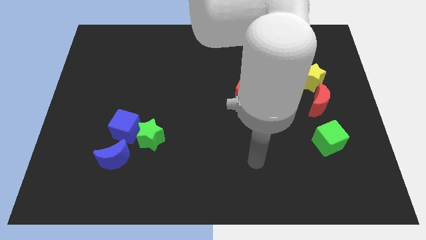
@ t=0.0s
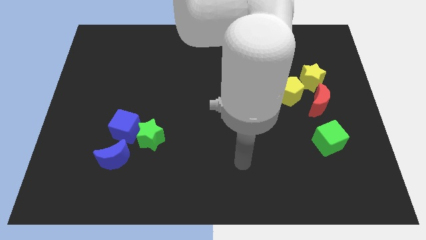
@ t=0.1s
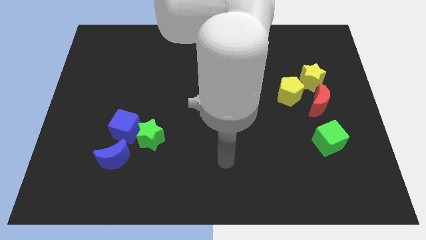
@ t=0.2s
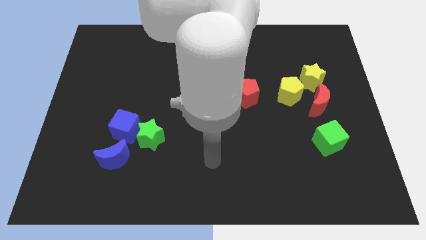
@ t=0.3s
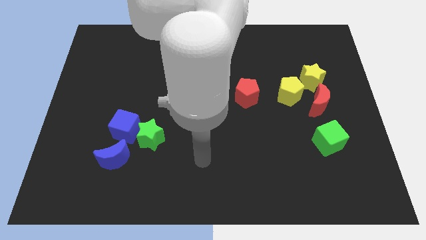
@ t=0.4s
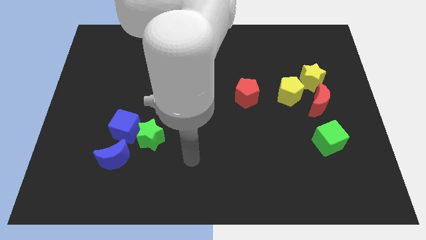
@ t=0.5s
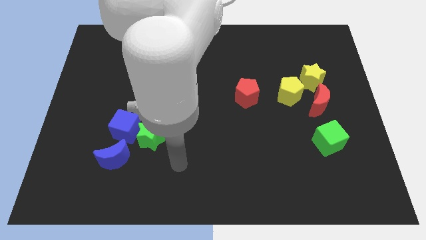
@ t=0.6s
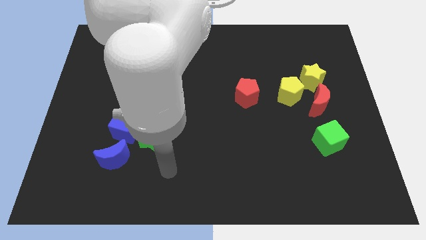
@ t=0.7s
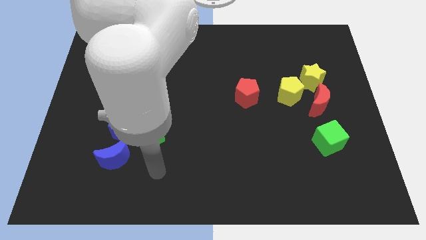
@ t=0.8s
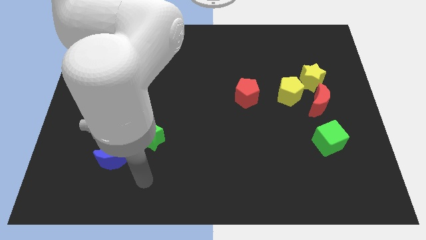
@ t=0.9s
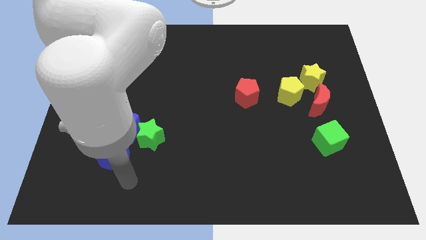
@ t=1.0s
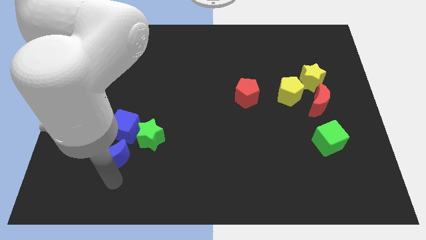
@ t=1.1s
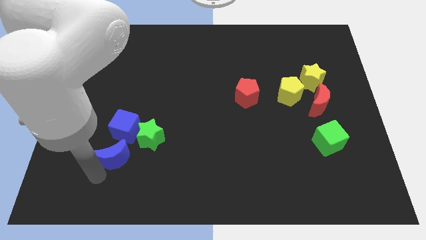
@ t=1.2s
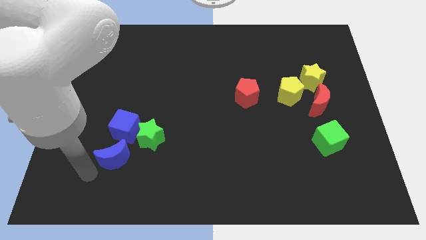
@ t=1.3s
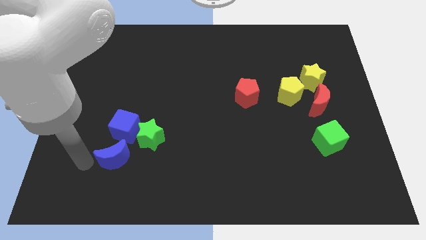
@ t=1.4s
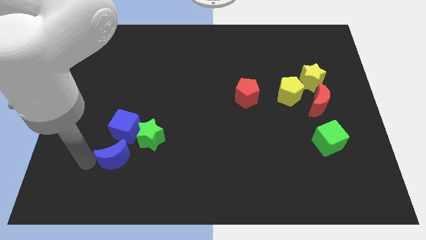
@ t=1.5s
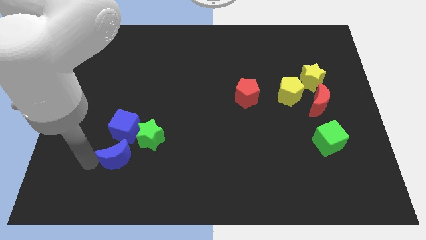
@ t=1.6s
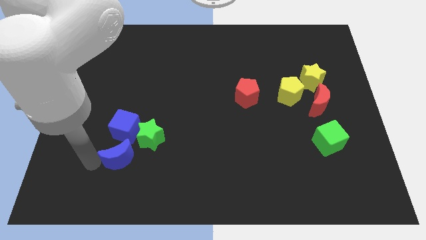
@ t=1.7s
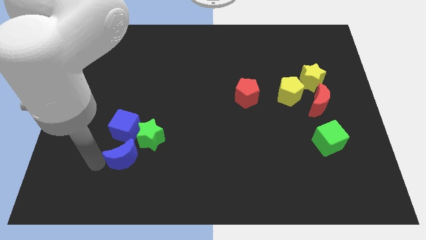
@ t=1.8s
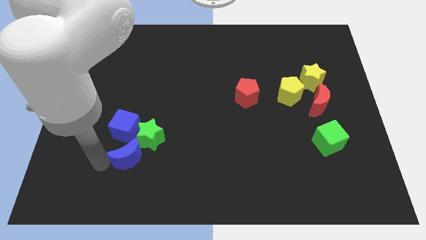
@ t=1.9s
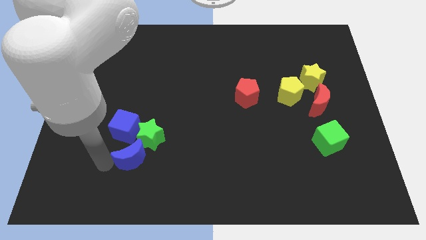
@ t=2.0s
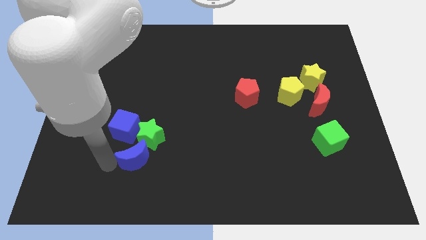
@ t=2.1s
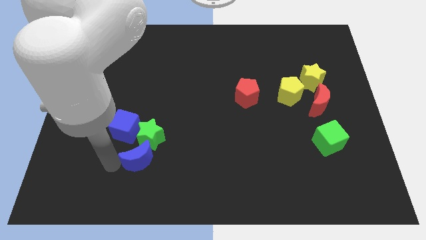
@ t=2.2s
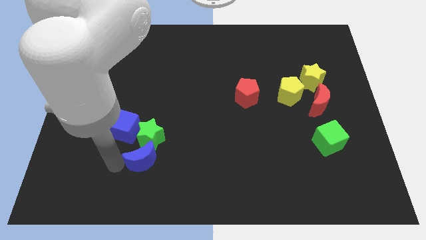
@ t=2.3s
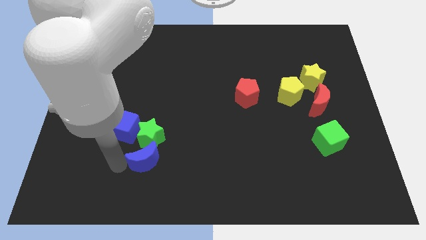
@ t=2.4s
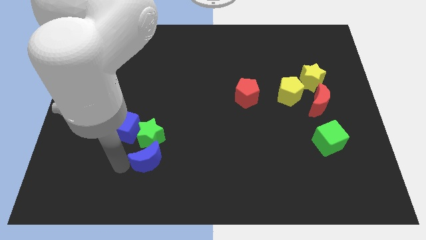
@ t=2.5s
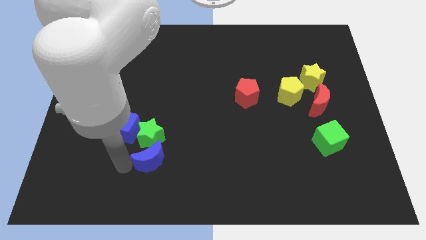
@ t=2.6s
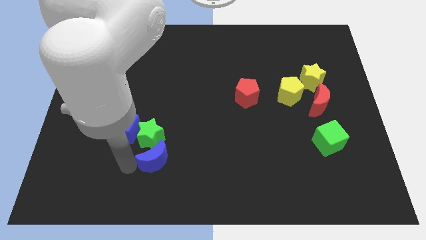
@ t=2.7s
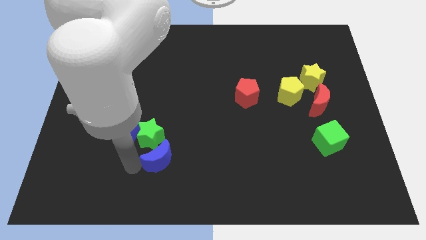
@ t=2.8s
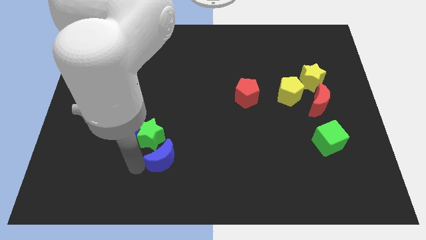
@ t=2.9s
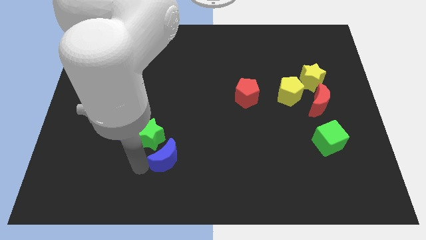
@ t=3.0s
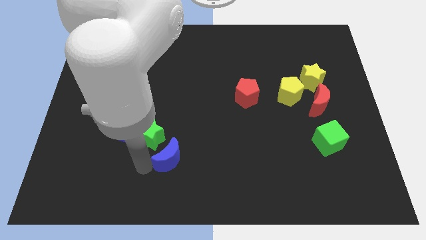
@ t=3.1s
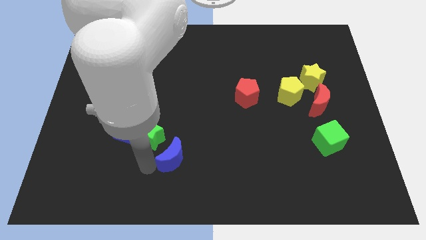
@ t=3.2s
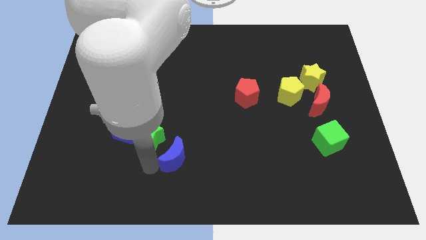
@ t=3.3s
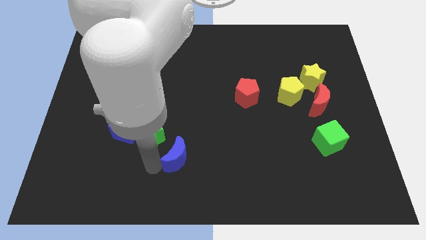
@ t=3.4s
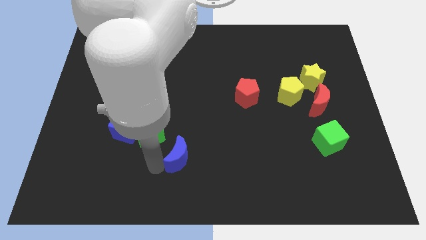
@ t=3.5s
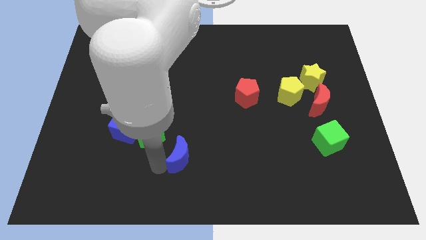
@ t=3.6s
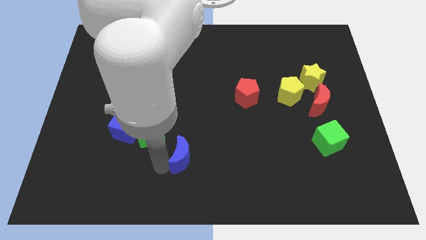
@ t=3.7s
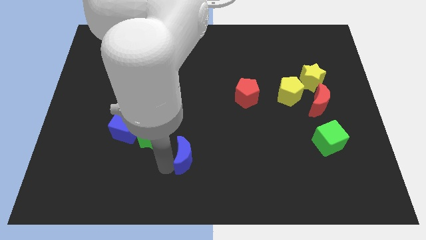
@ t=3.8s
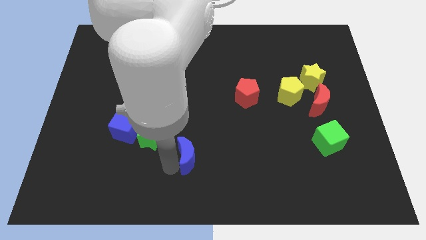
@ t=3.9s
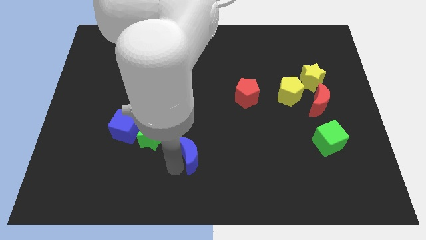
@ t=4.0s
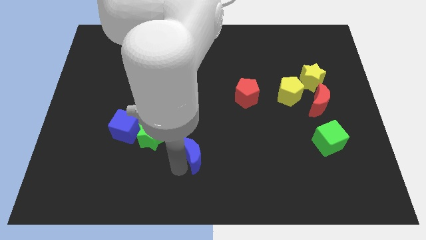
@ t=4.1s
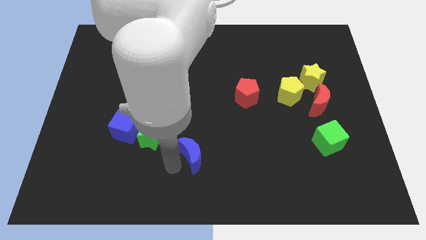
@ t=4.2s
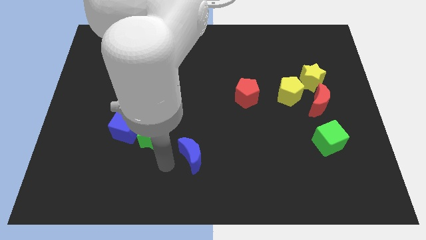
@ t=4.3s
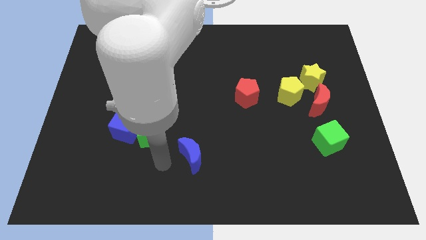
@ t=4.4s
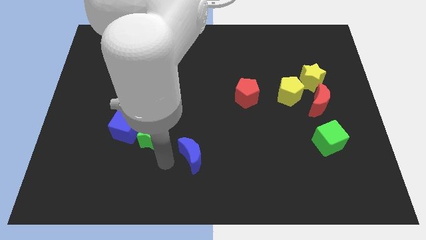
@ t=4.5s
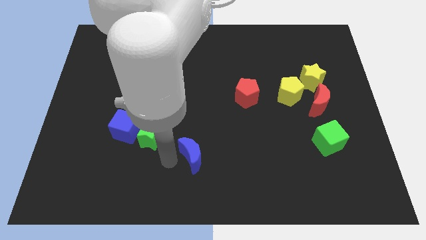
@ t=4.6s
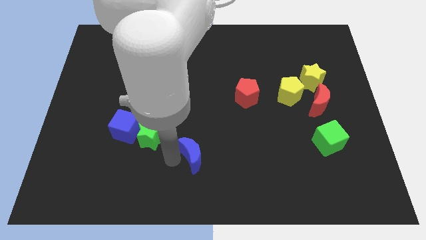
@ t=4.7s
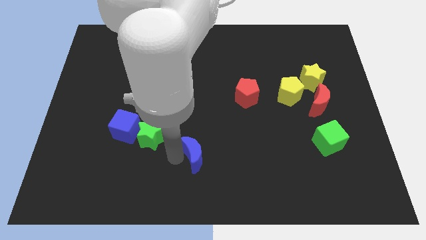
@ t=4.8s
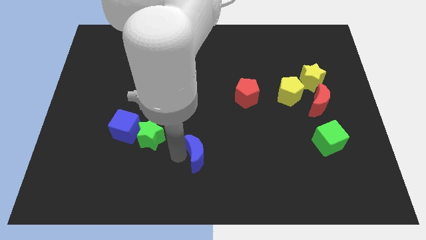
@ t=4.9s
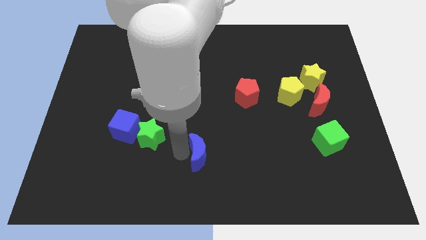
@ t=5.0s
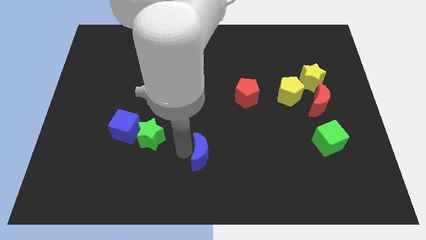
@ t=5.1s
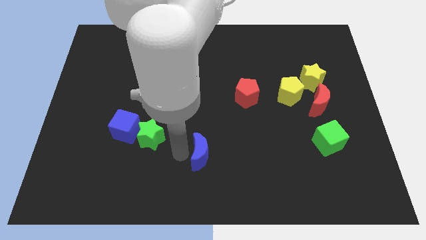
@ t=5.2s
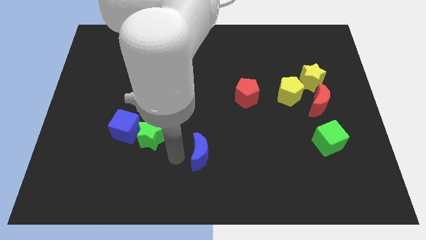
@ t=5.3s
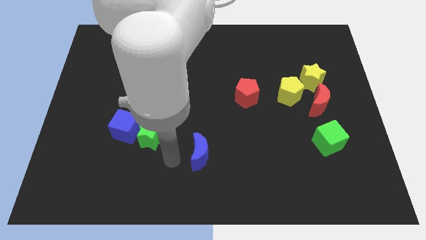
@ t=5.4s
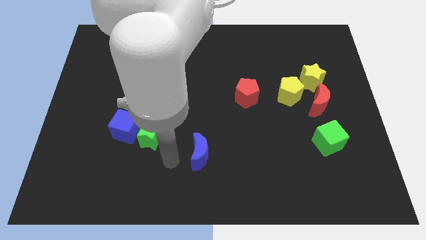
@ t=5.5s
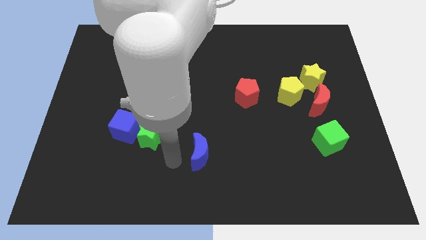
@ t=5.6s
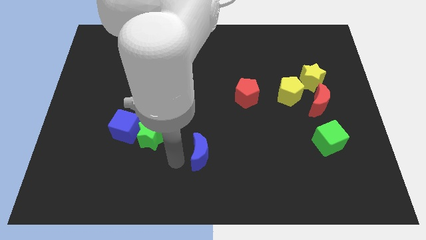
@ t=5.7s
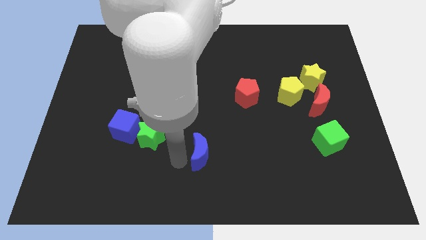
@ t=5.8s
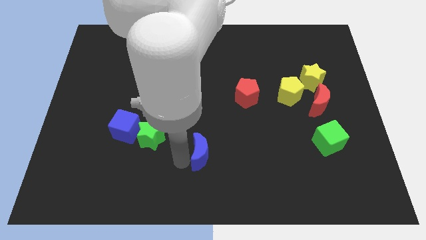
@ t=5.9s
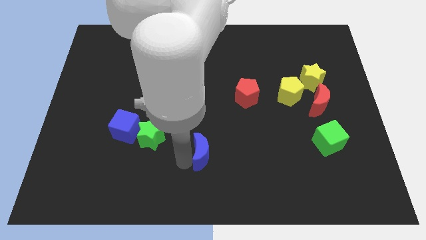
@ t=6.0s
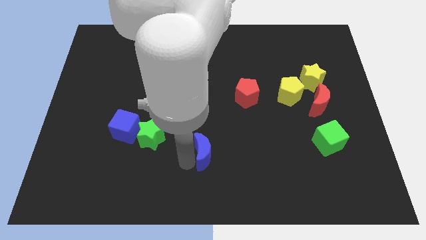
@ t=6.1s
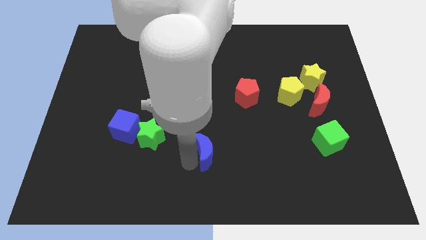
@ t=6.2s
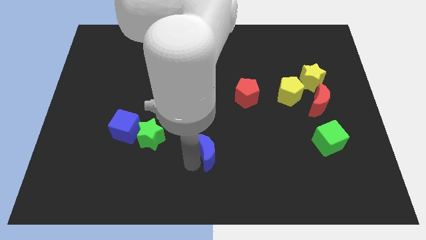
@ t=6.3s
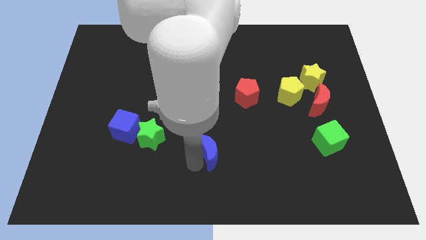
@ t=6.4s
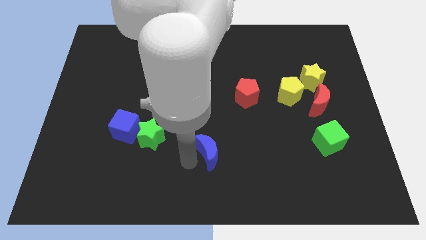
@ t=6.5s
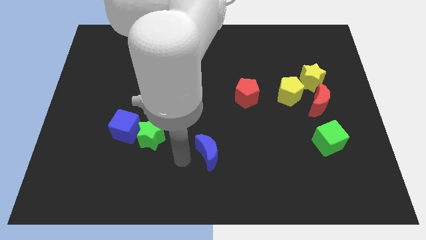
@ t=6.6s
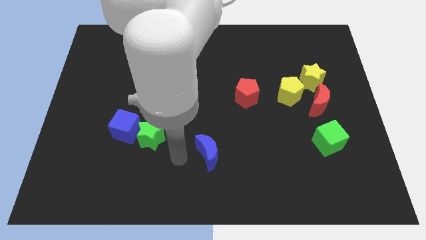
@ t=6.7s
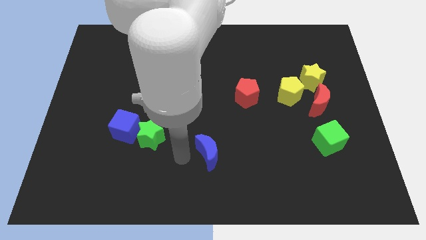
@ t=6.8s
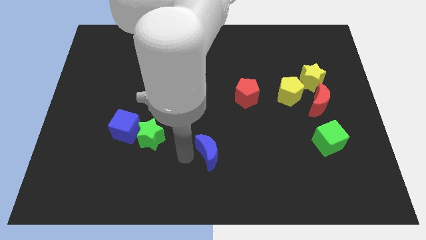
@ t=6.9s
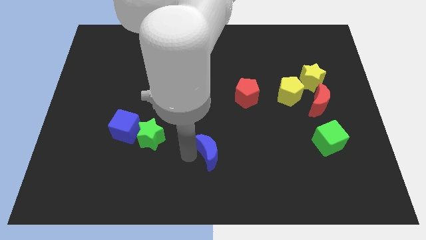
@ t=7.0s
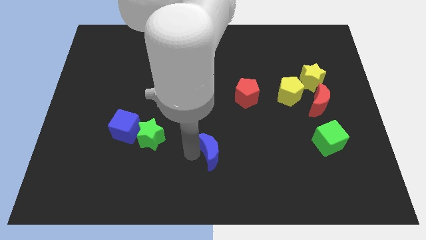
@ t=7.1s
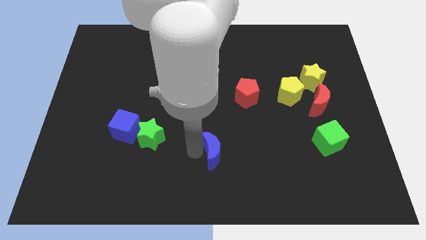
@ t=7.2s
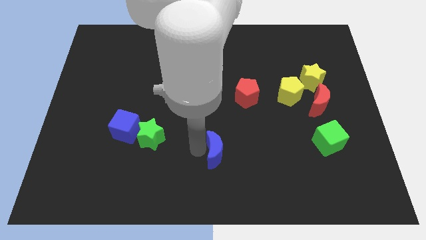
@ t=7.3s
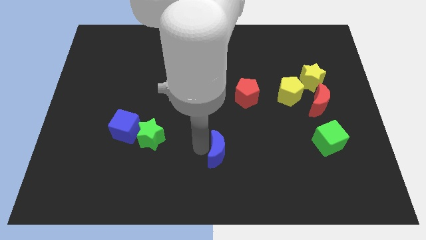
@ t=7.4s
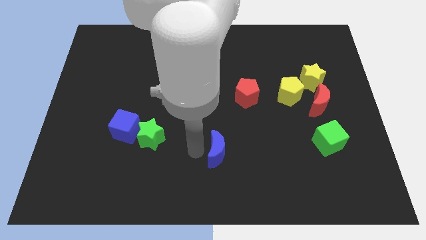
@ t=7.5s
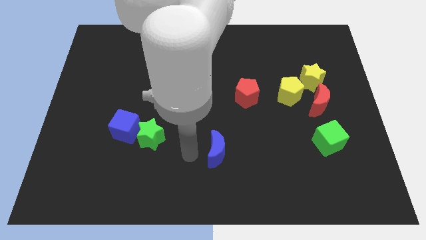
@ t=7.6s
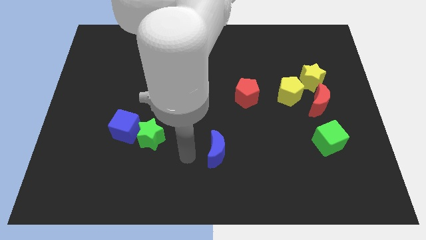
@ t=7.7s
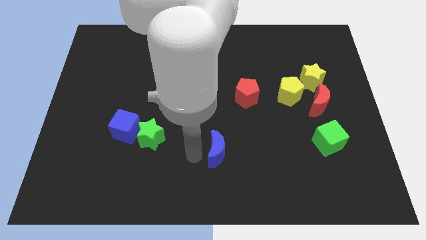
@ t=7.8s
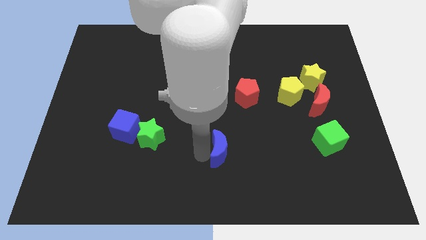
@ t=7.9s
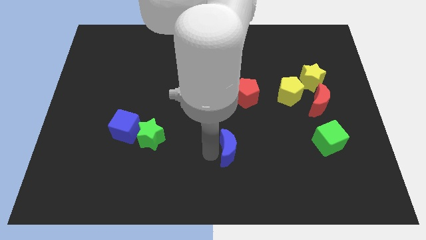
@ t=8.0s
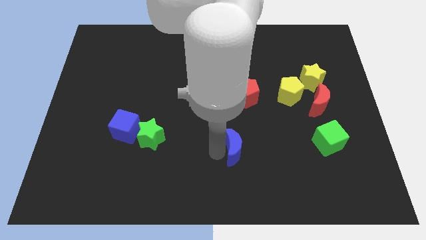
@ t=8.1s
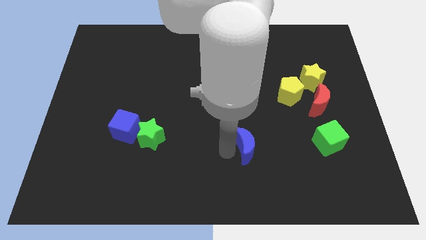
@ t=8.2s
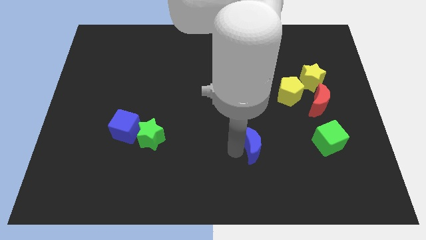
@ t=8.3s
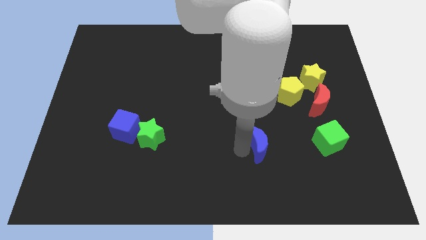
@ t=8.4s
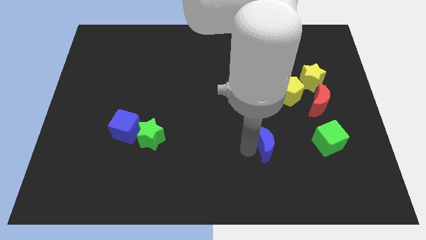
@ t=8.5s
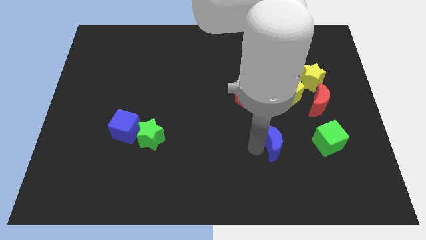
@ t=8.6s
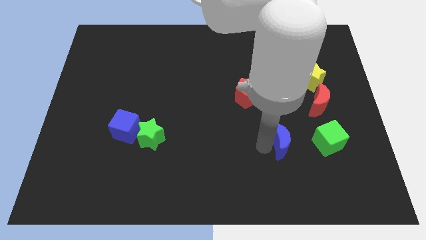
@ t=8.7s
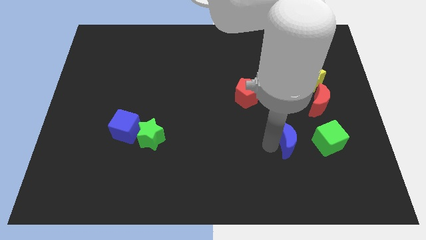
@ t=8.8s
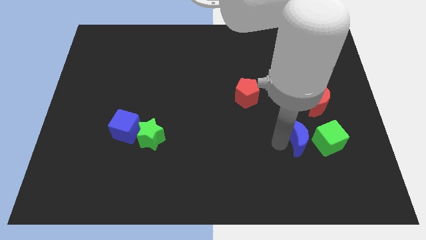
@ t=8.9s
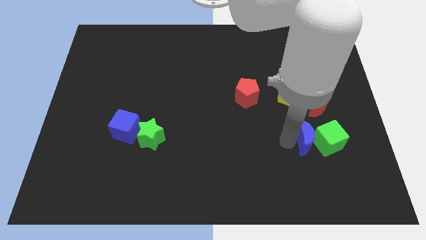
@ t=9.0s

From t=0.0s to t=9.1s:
push the blue moon close to the green cube
